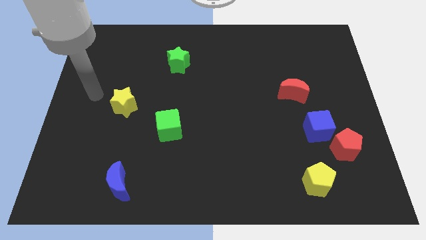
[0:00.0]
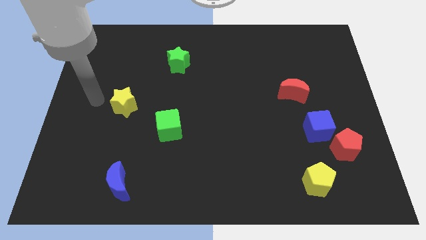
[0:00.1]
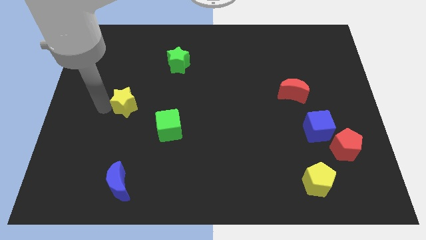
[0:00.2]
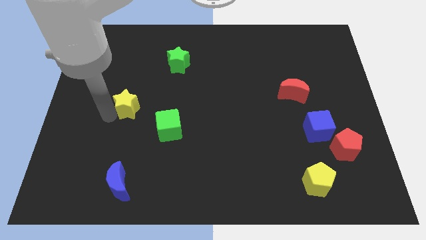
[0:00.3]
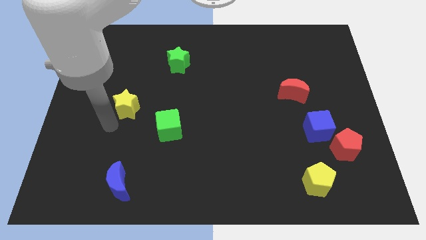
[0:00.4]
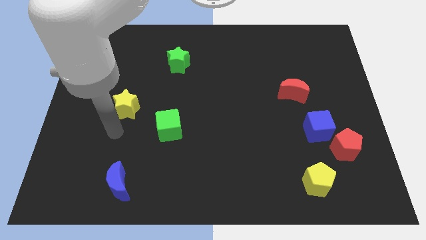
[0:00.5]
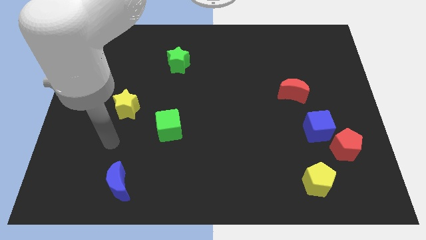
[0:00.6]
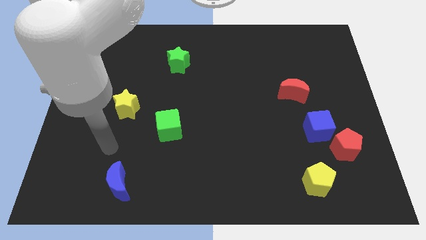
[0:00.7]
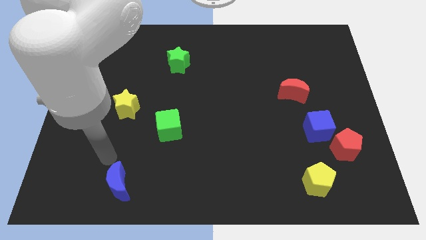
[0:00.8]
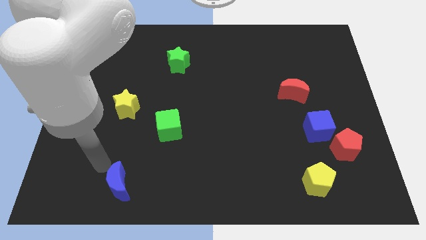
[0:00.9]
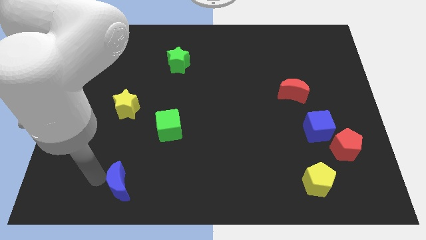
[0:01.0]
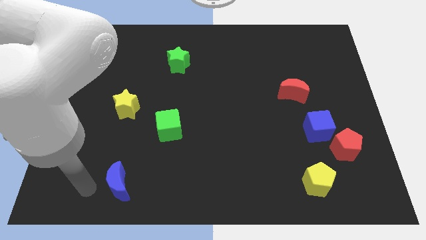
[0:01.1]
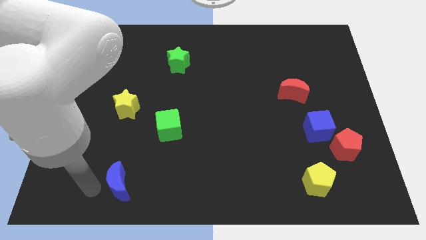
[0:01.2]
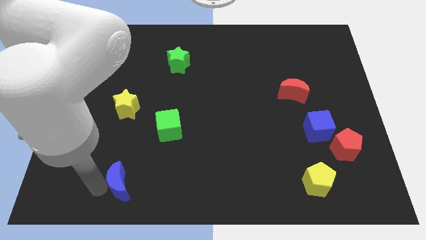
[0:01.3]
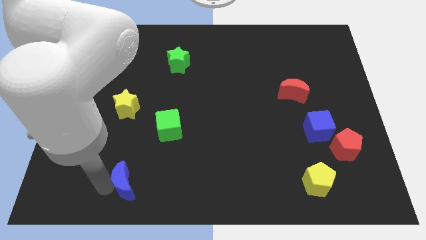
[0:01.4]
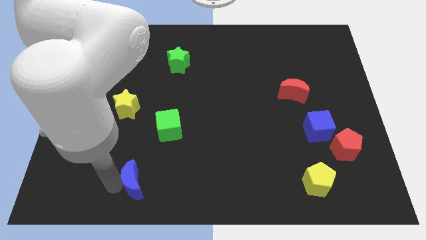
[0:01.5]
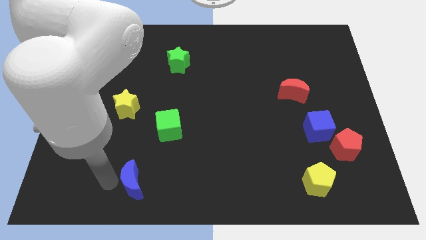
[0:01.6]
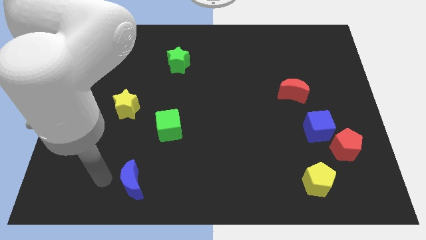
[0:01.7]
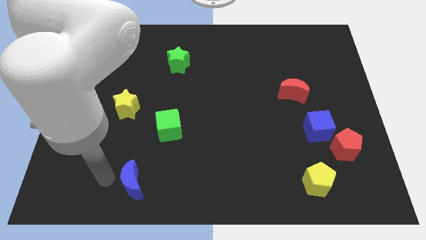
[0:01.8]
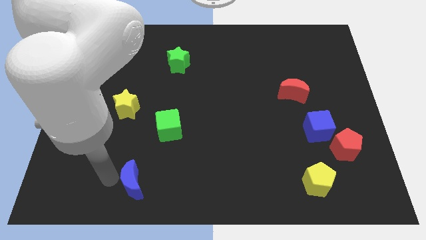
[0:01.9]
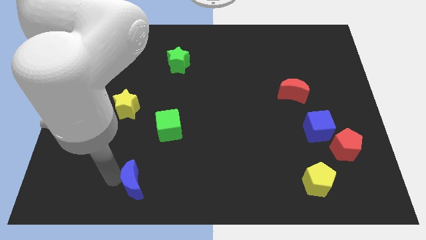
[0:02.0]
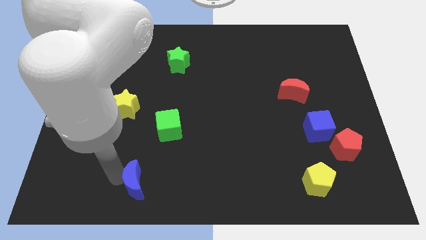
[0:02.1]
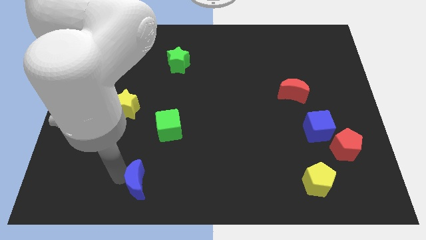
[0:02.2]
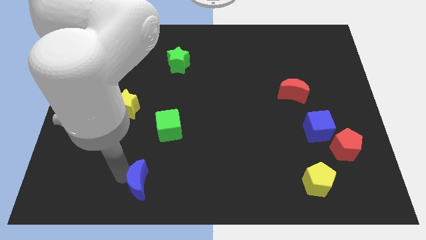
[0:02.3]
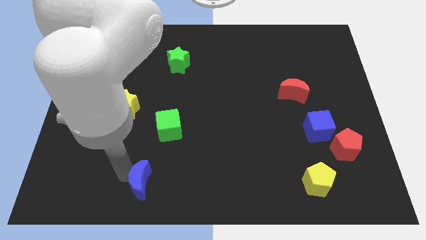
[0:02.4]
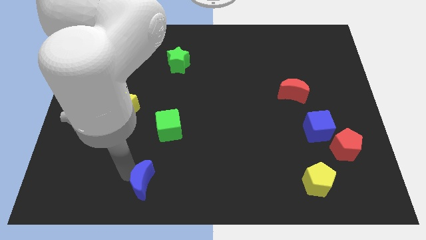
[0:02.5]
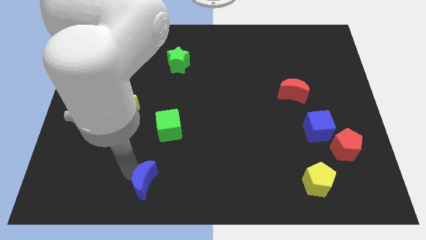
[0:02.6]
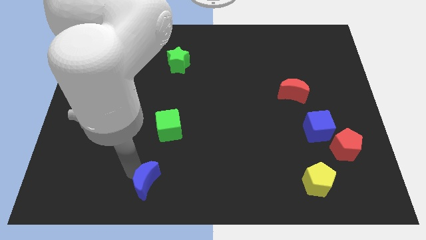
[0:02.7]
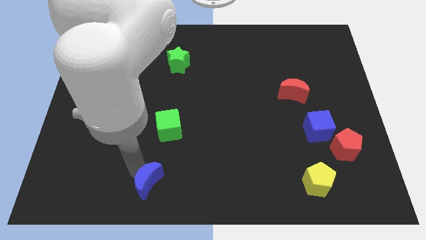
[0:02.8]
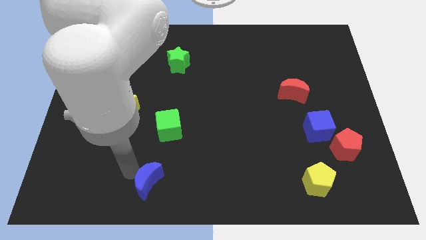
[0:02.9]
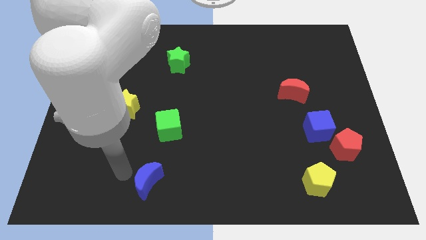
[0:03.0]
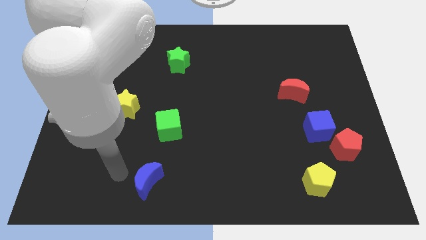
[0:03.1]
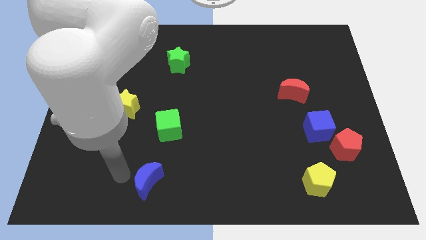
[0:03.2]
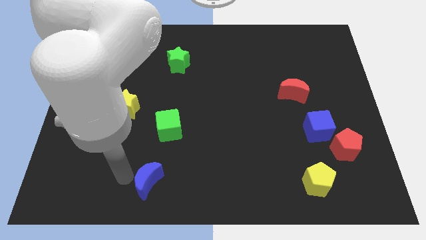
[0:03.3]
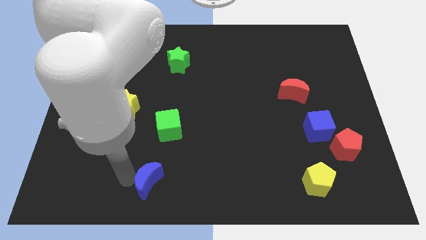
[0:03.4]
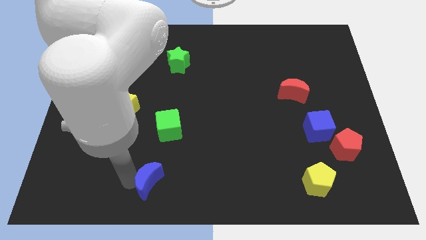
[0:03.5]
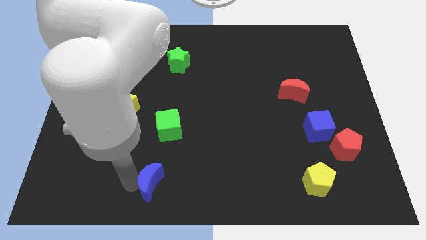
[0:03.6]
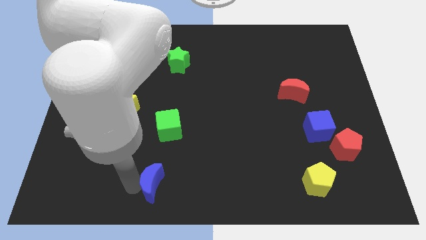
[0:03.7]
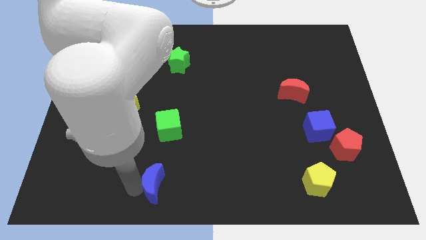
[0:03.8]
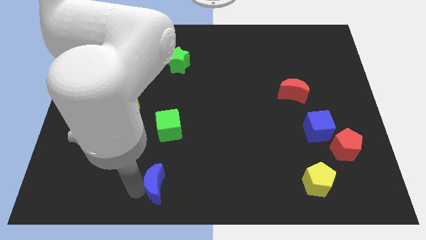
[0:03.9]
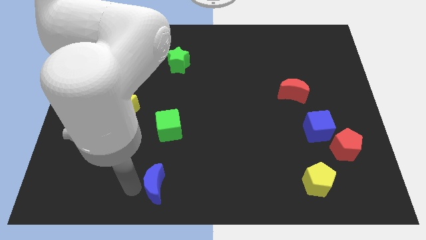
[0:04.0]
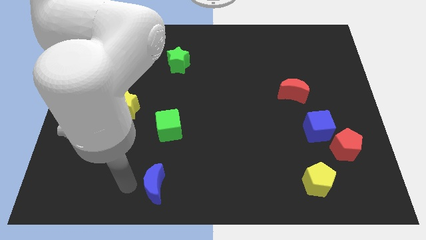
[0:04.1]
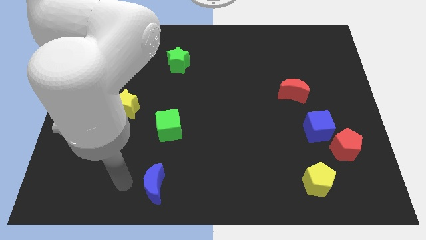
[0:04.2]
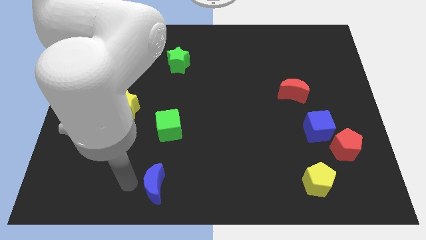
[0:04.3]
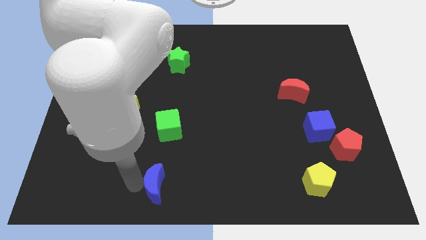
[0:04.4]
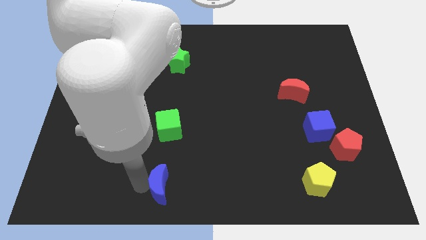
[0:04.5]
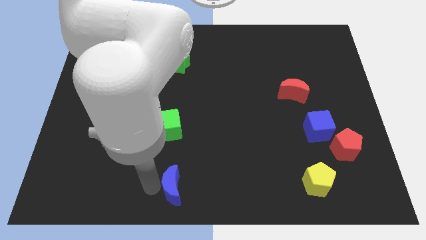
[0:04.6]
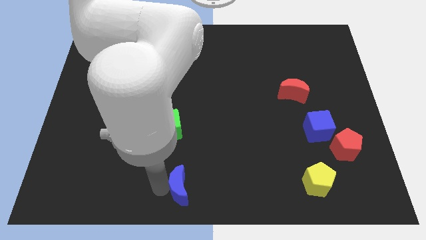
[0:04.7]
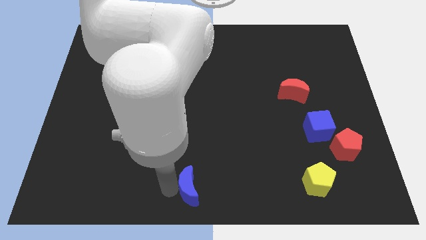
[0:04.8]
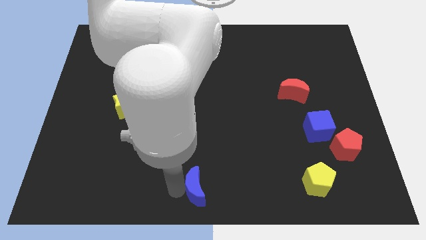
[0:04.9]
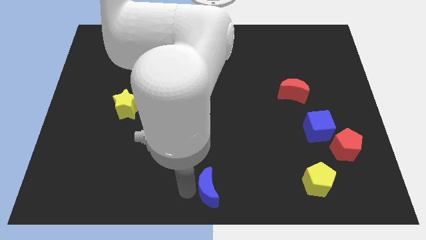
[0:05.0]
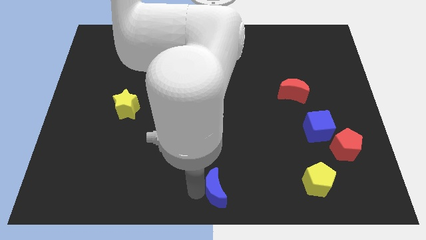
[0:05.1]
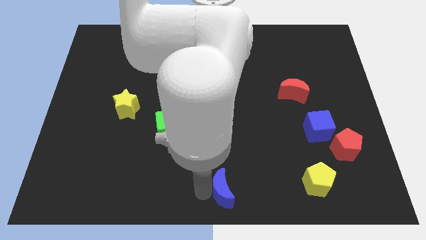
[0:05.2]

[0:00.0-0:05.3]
move the blue moon to the right

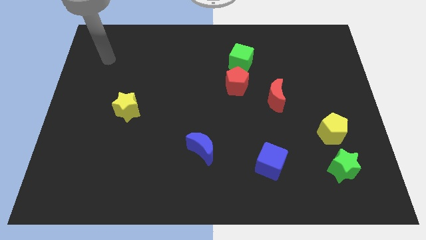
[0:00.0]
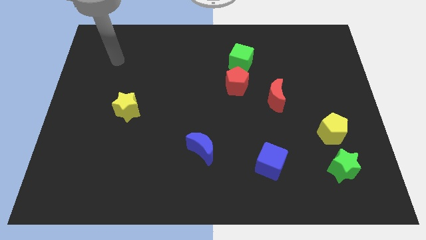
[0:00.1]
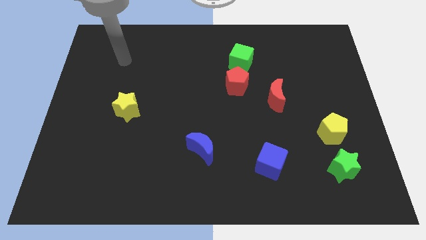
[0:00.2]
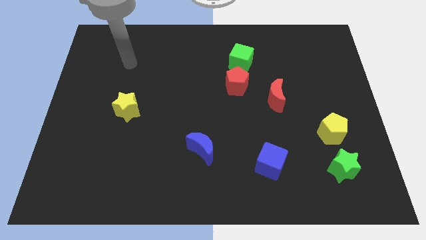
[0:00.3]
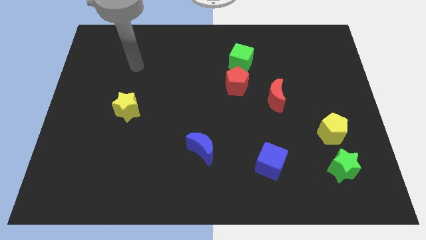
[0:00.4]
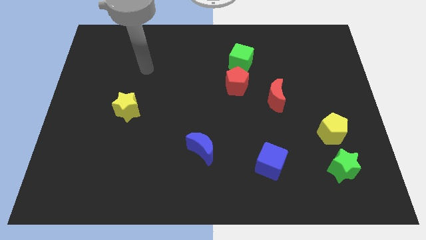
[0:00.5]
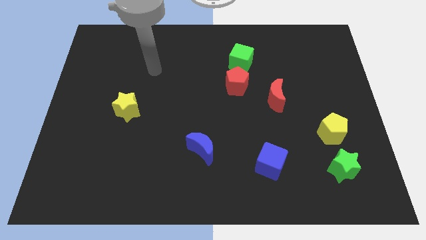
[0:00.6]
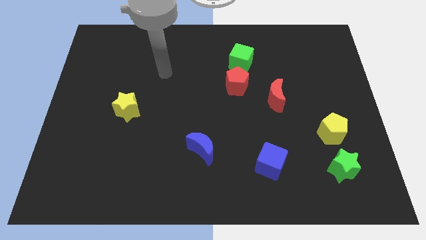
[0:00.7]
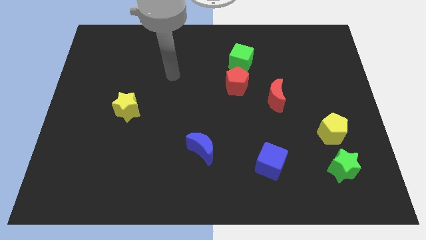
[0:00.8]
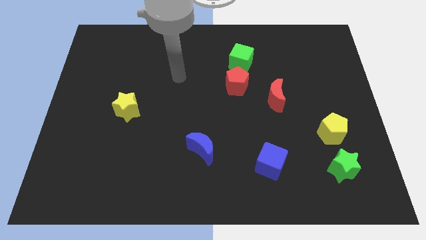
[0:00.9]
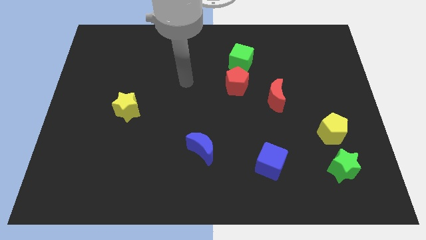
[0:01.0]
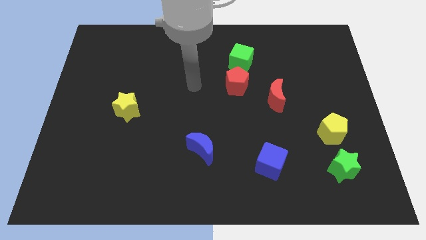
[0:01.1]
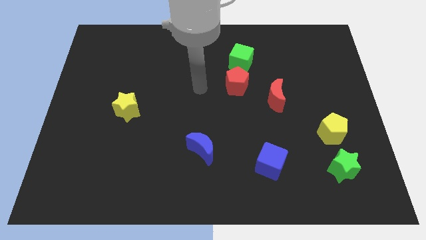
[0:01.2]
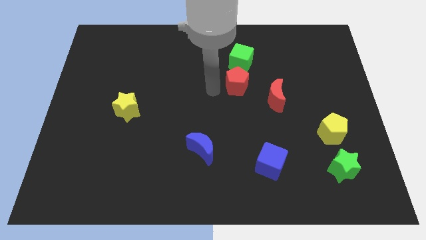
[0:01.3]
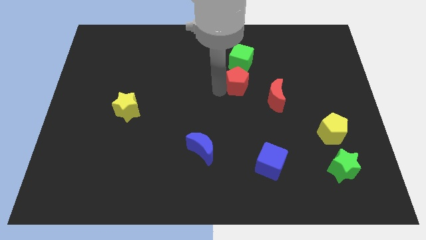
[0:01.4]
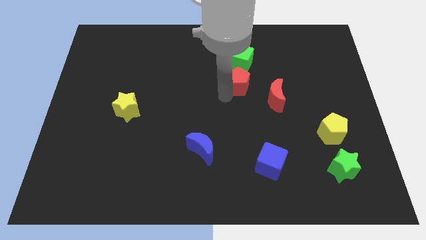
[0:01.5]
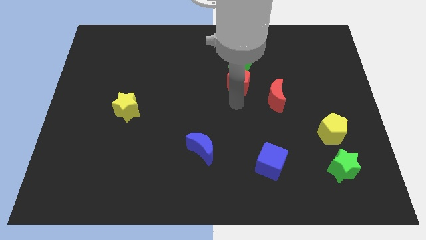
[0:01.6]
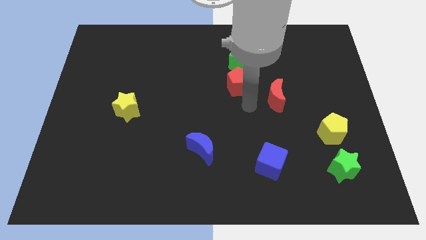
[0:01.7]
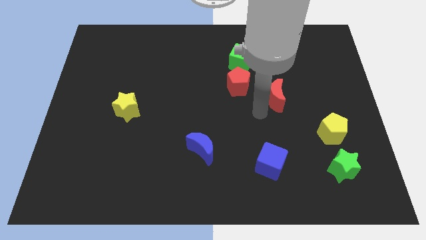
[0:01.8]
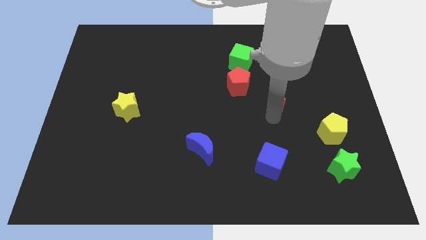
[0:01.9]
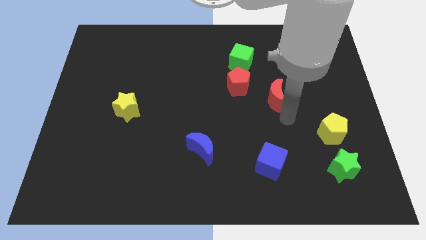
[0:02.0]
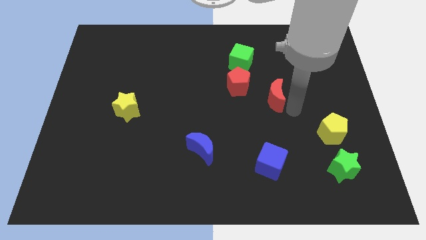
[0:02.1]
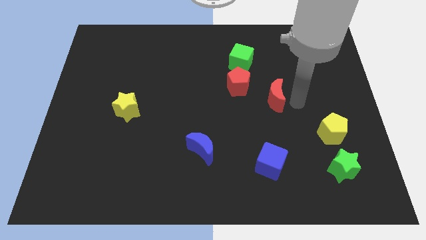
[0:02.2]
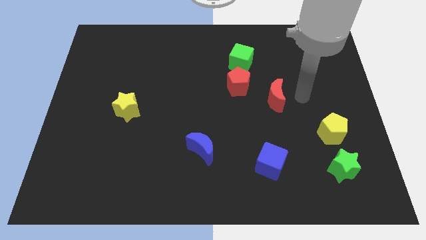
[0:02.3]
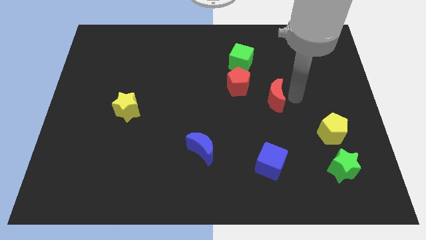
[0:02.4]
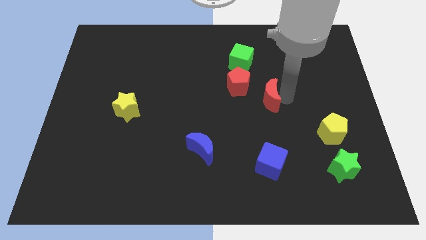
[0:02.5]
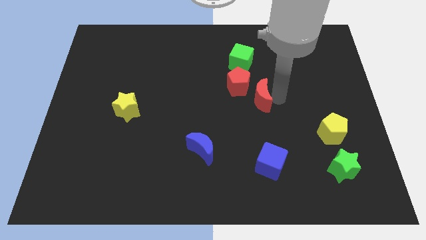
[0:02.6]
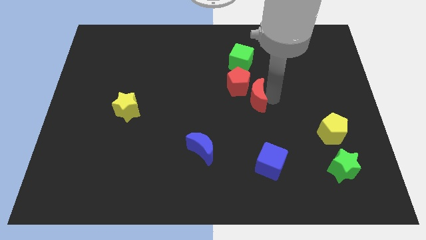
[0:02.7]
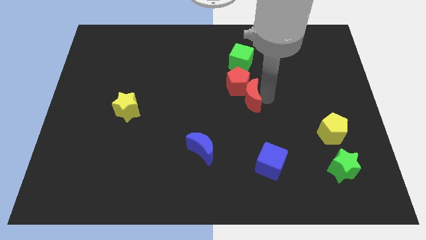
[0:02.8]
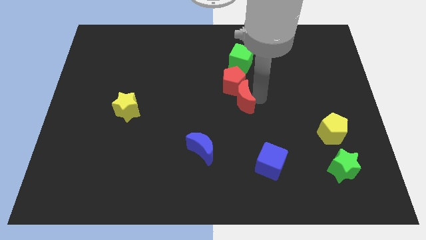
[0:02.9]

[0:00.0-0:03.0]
slightly push the red moon left
